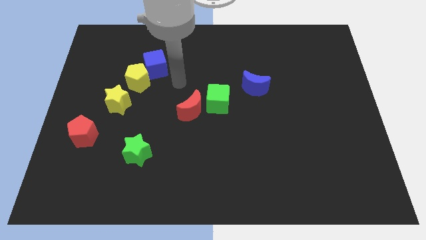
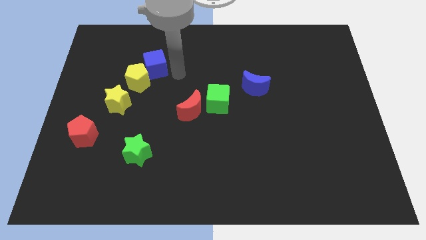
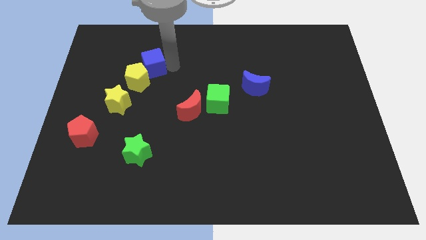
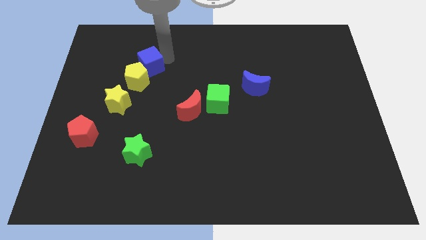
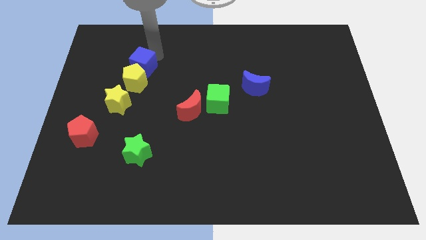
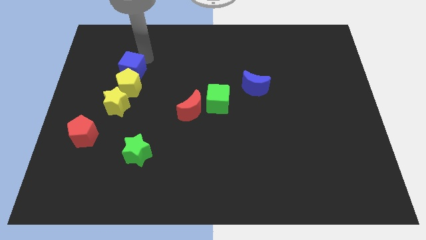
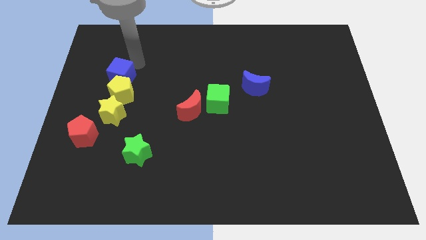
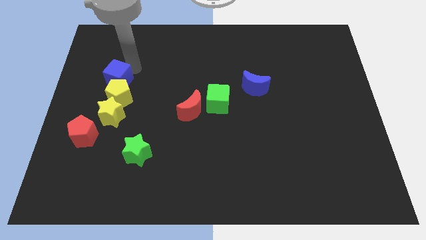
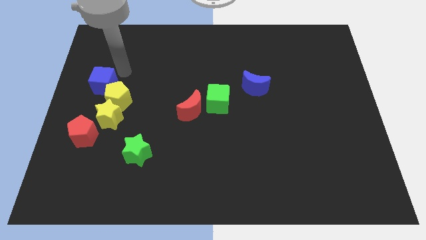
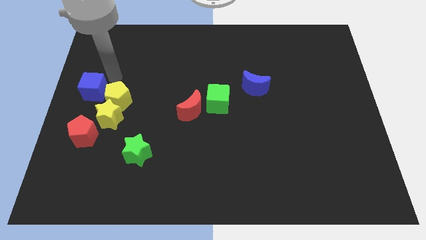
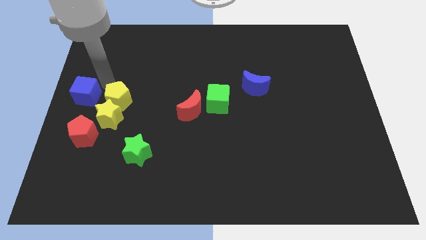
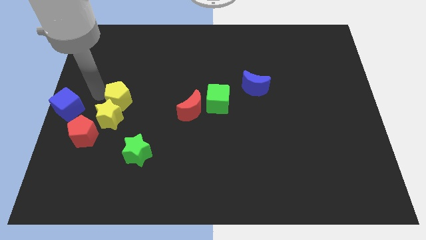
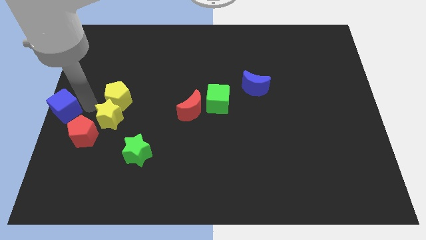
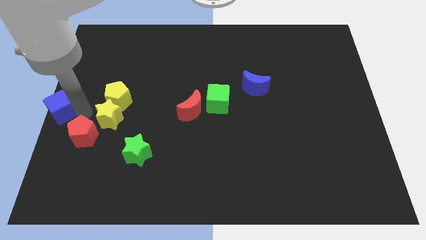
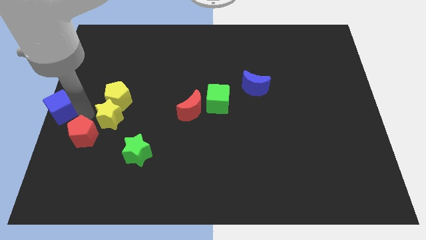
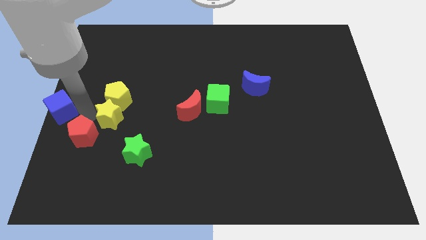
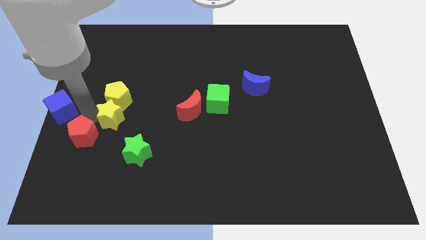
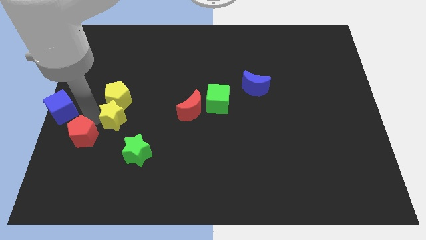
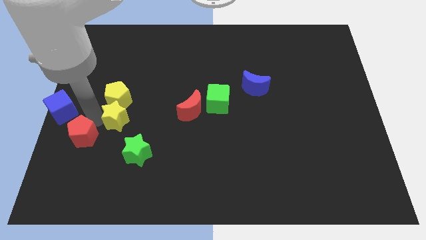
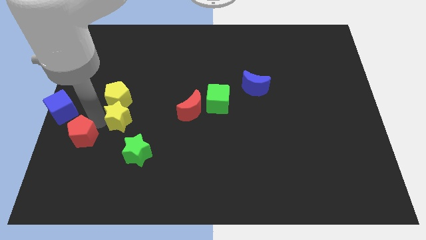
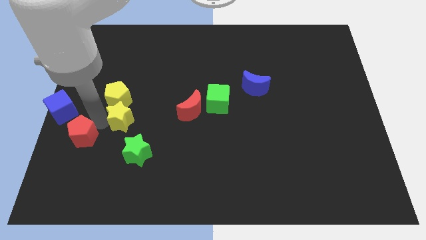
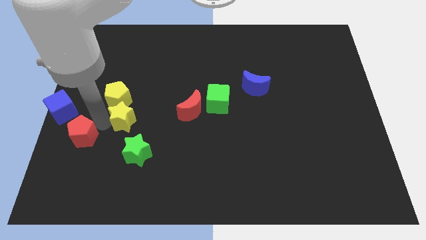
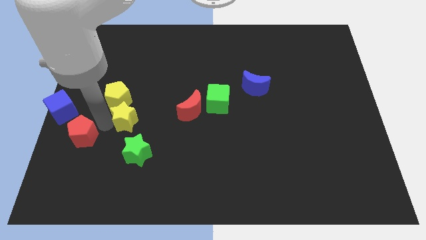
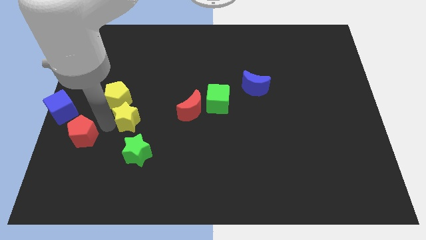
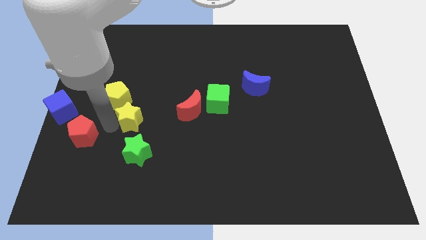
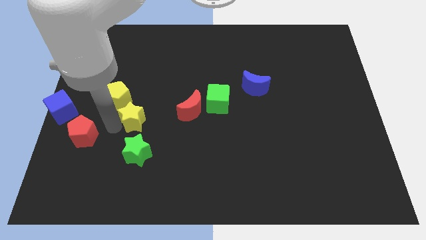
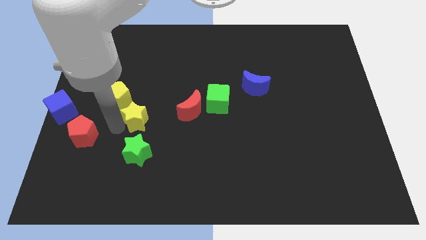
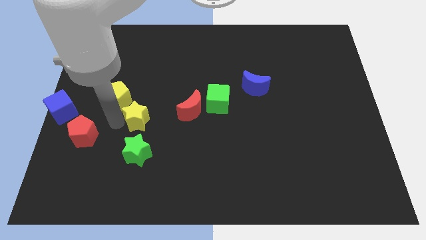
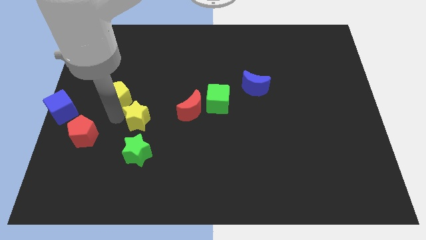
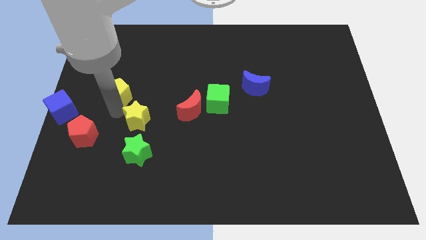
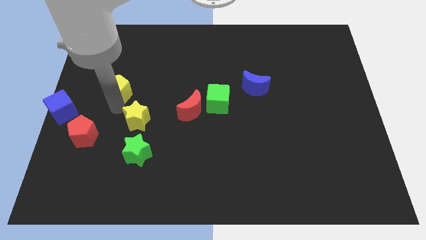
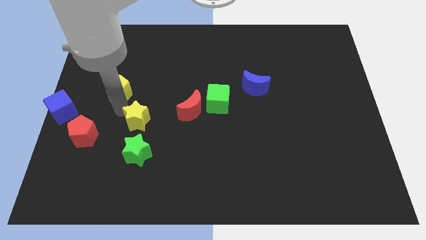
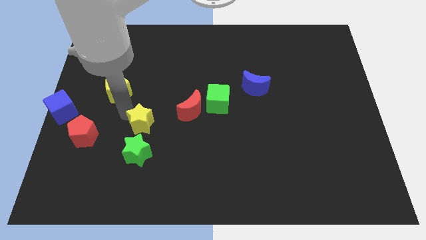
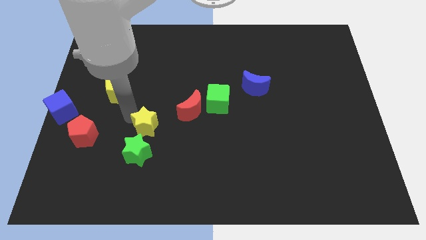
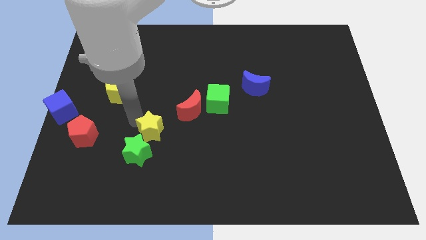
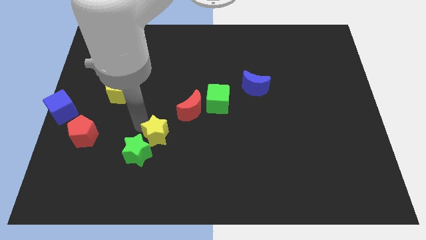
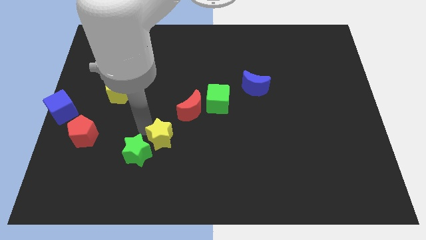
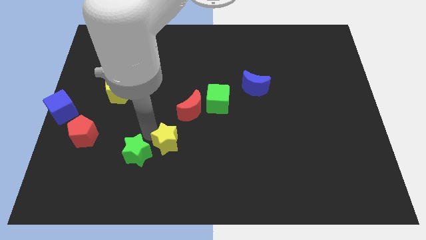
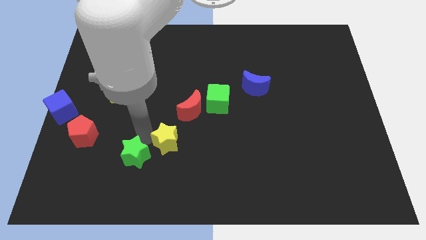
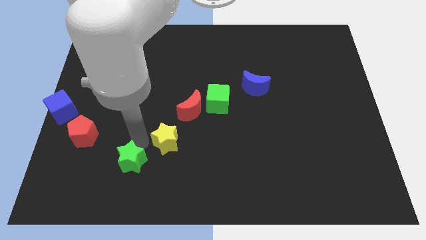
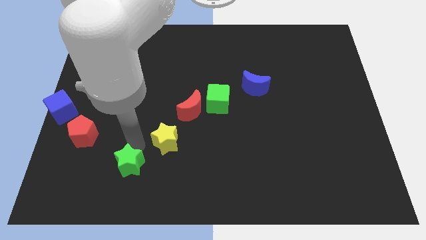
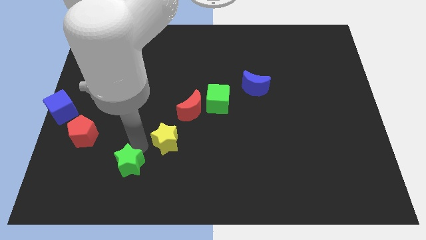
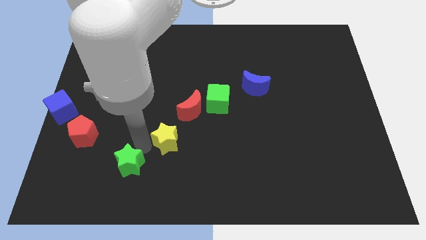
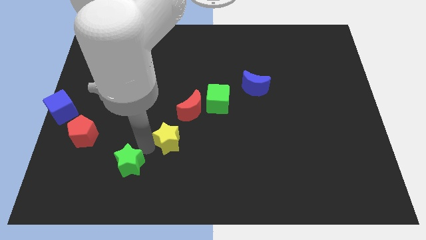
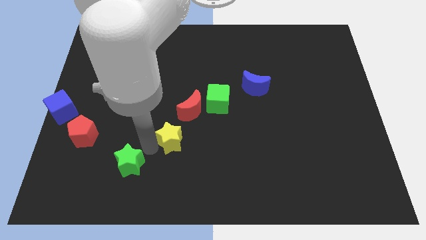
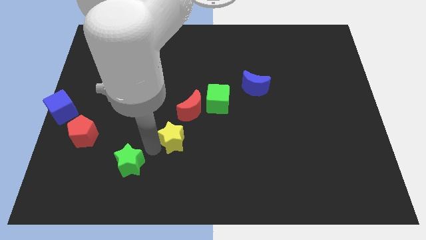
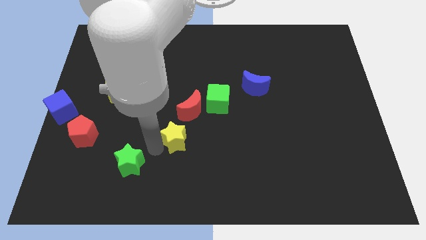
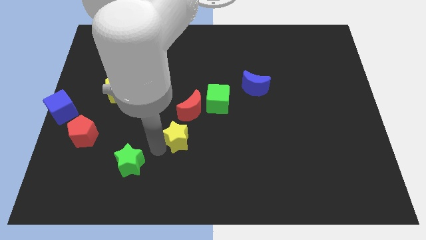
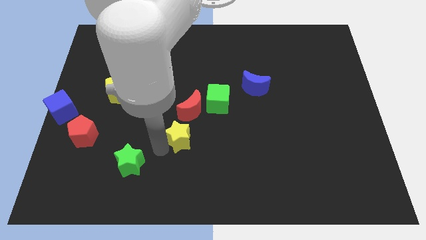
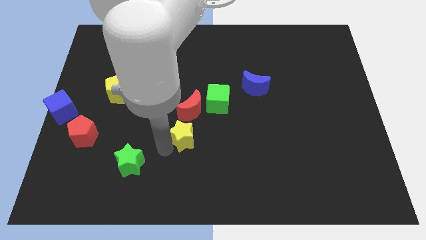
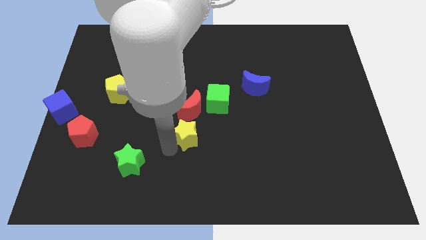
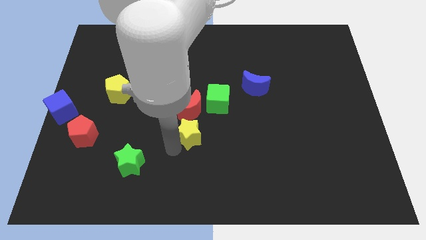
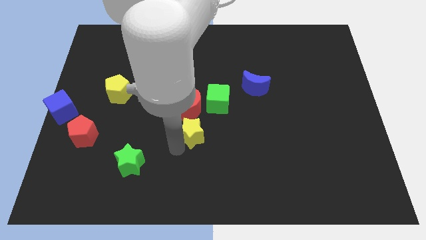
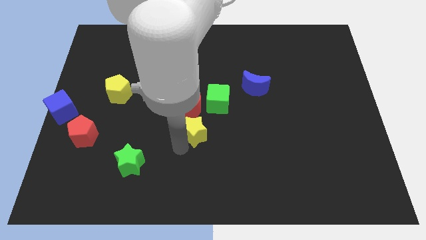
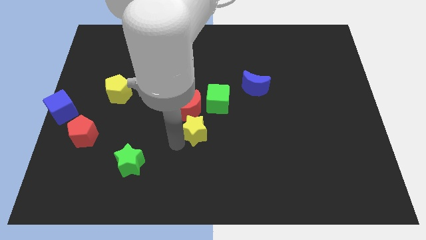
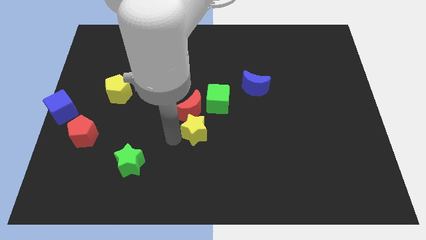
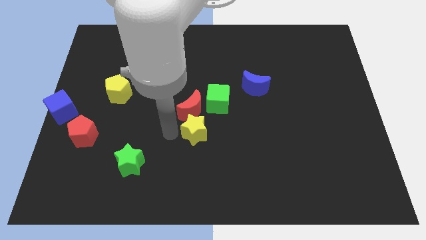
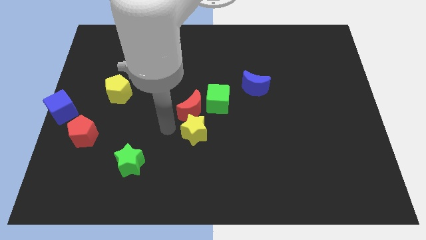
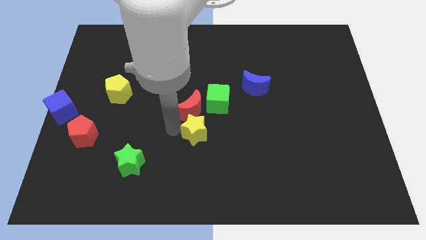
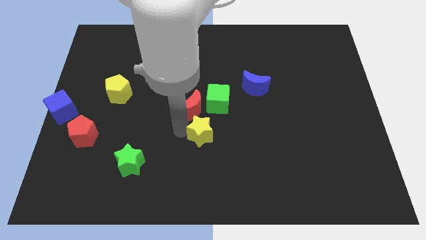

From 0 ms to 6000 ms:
slide the yellow star below the green cube

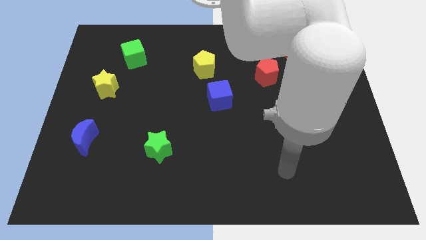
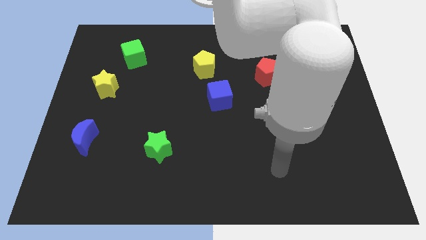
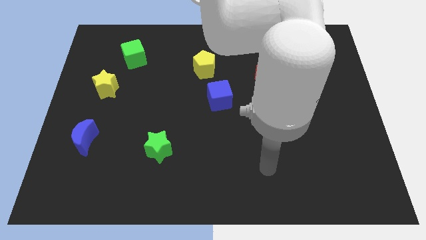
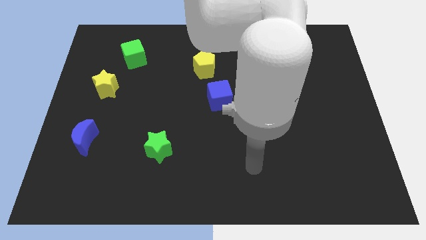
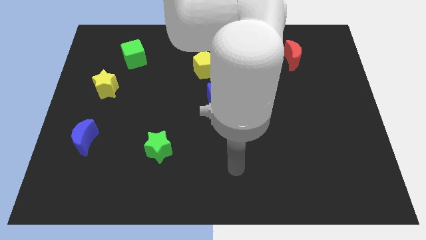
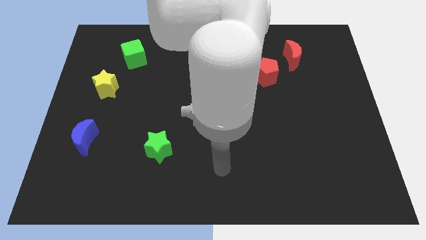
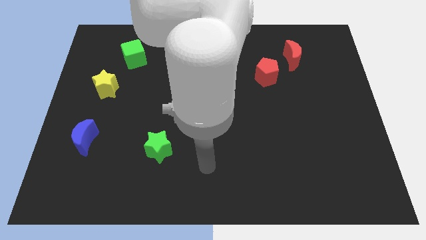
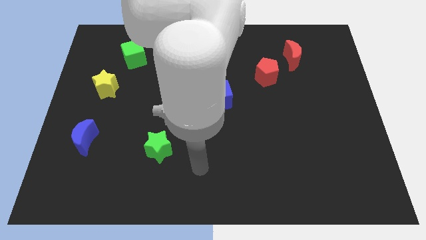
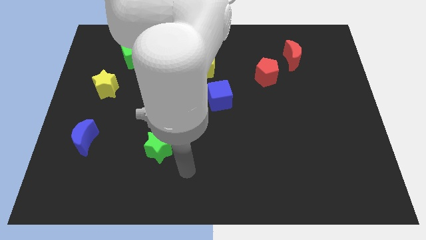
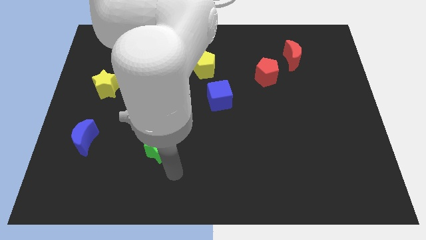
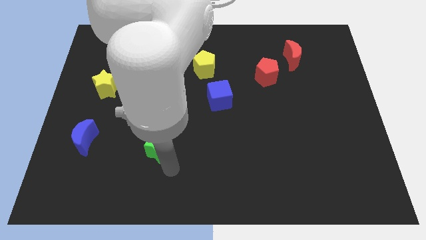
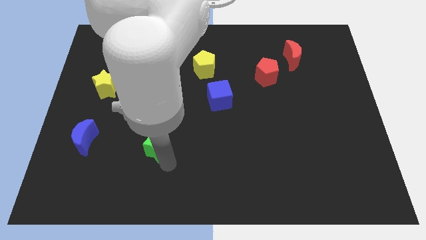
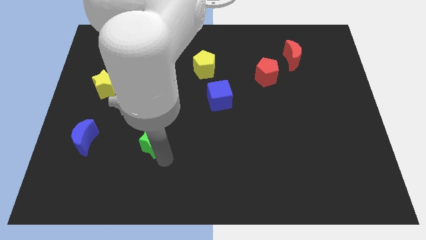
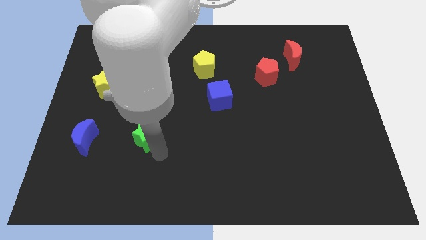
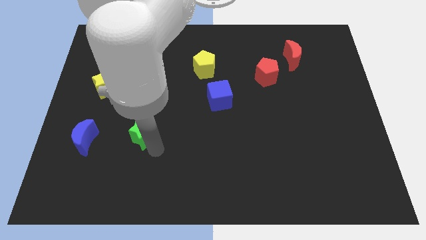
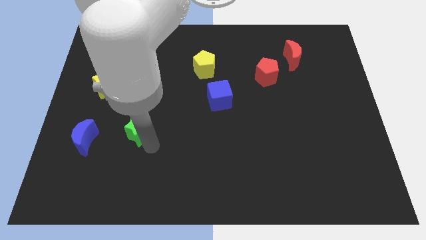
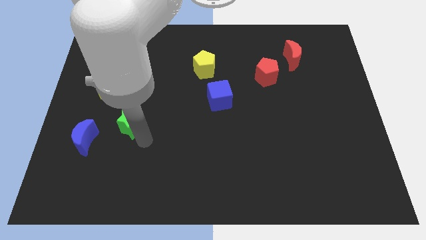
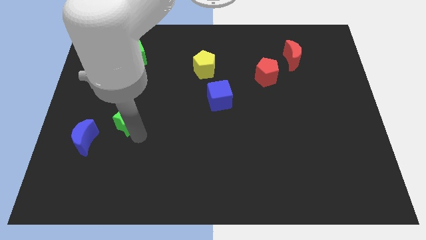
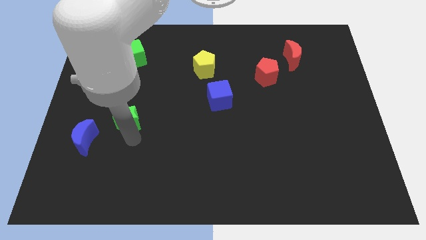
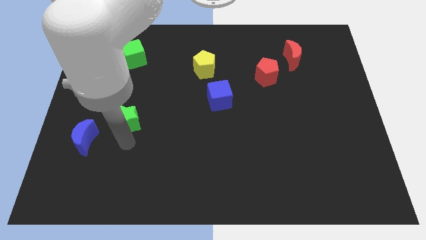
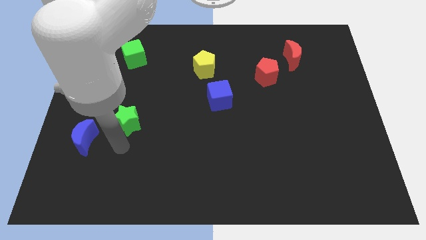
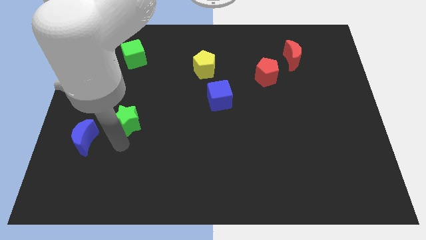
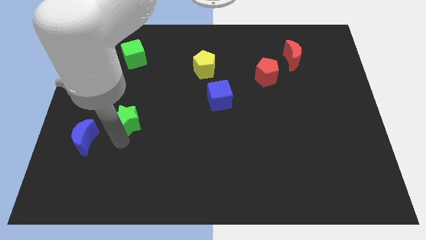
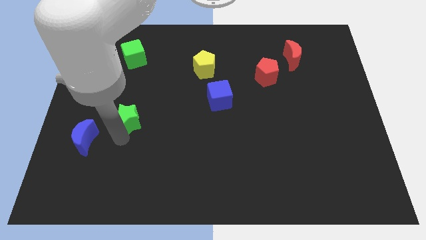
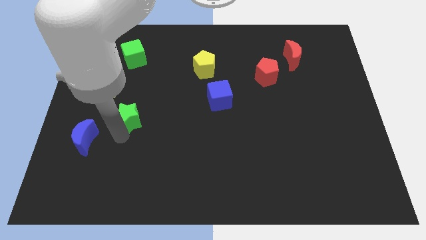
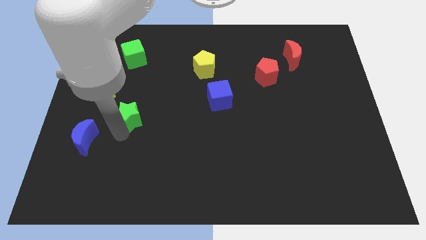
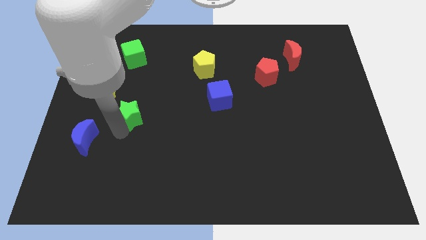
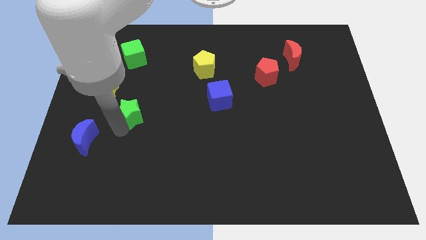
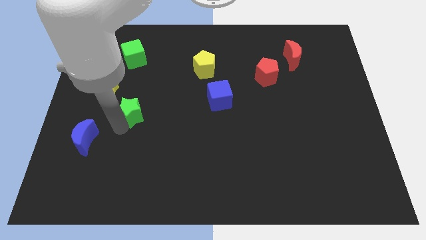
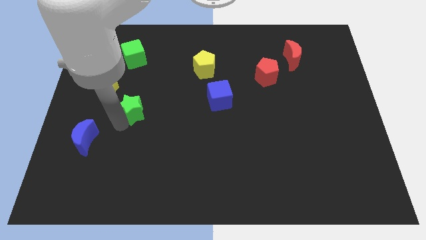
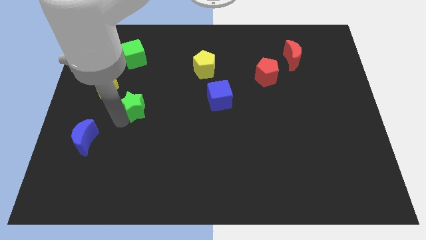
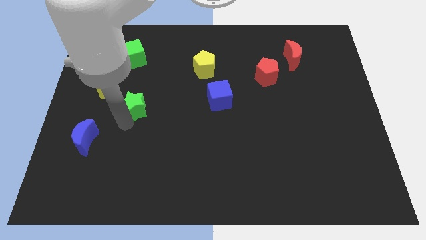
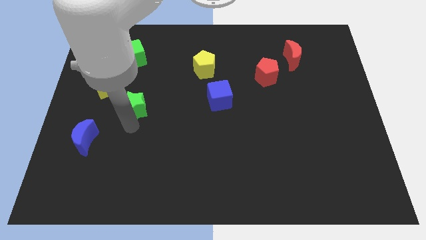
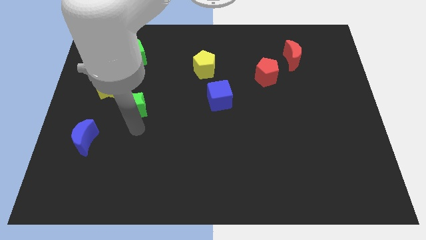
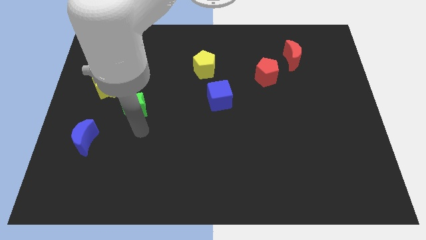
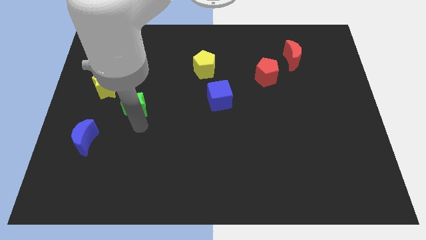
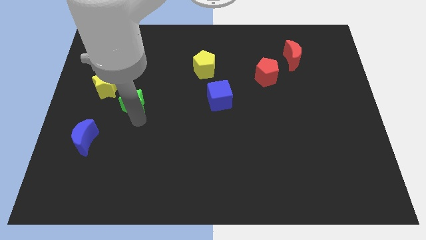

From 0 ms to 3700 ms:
move the green star below the green cube
